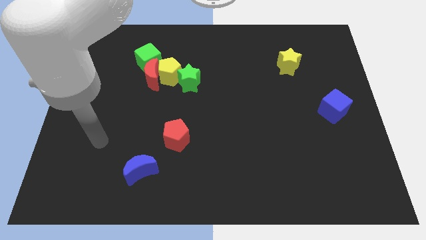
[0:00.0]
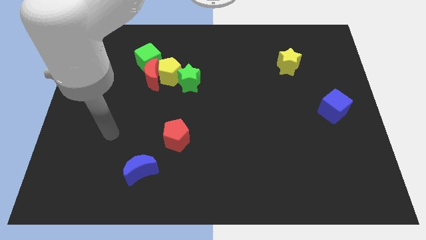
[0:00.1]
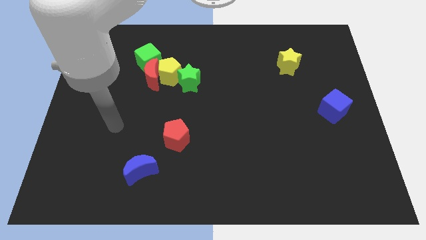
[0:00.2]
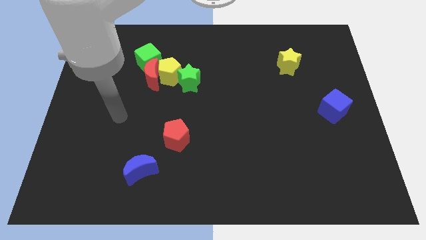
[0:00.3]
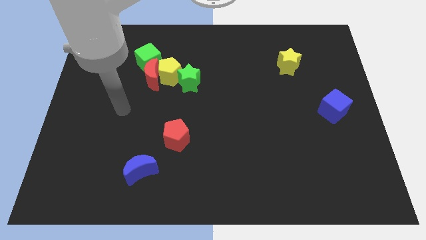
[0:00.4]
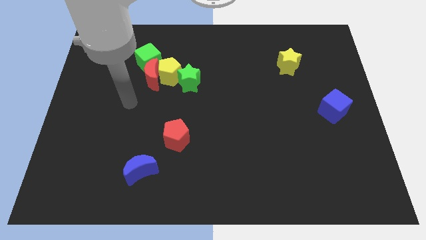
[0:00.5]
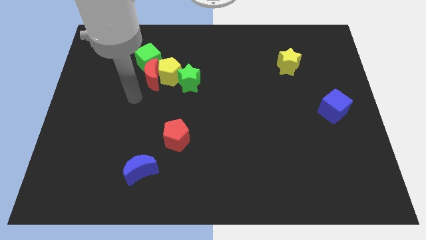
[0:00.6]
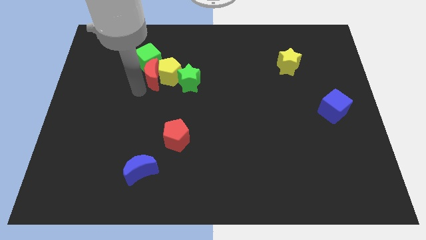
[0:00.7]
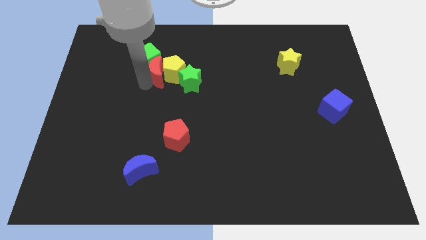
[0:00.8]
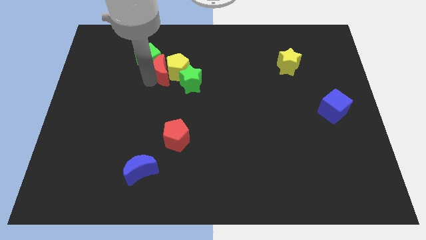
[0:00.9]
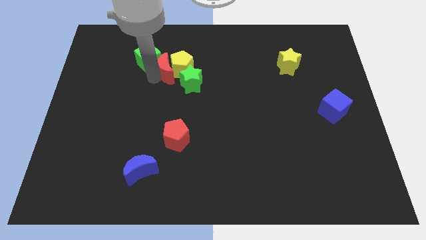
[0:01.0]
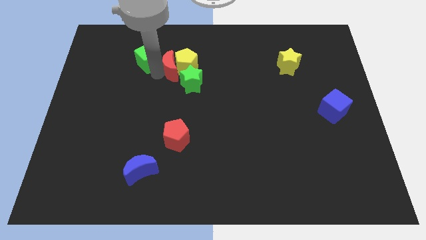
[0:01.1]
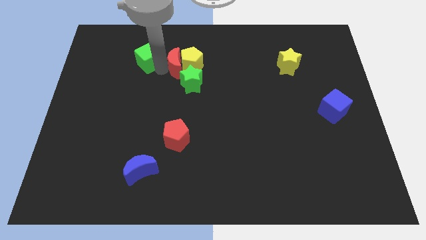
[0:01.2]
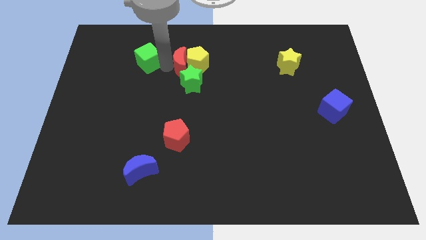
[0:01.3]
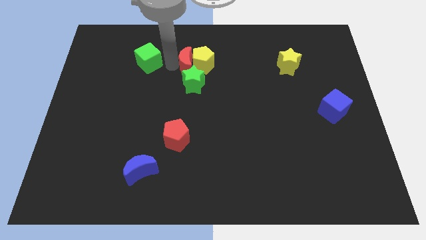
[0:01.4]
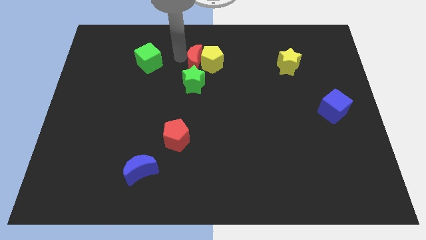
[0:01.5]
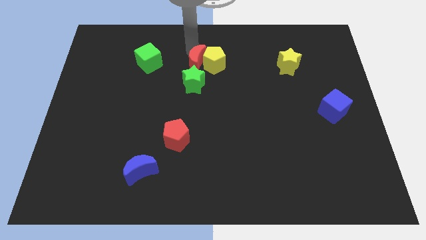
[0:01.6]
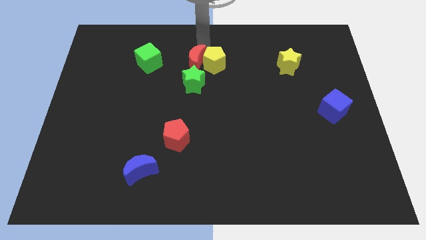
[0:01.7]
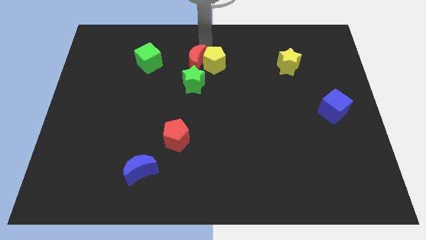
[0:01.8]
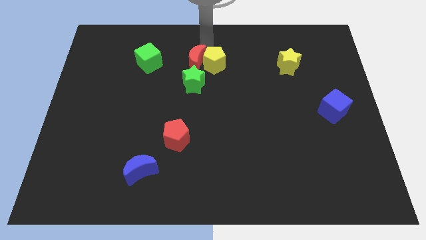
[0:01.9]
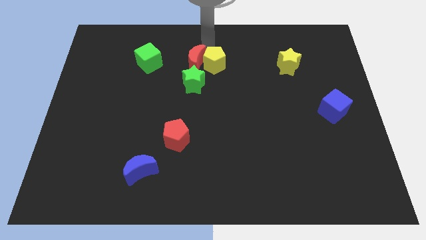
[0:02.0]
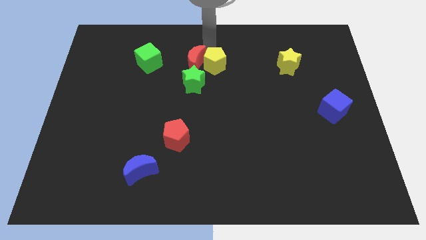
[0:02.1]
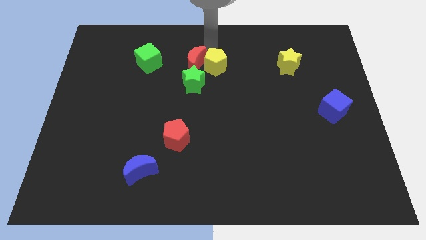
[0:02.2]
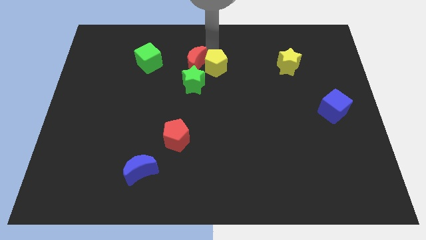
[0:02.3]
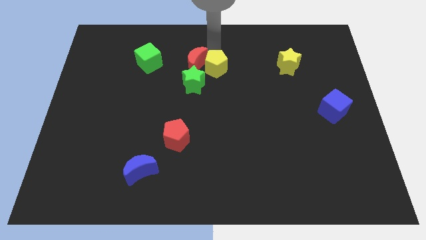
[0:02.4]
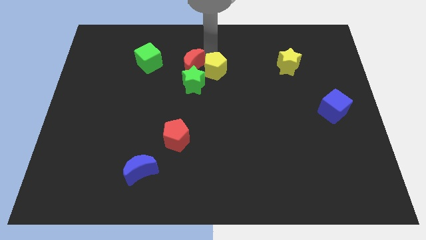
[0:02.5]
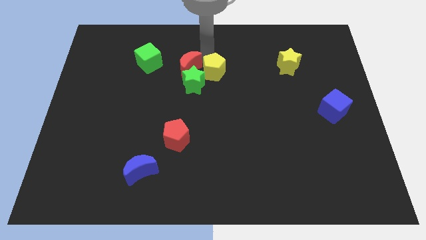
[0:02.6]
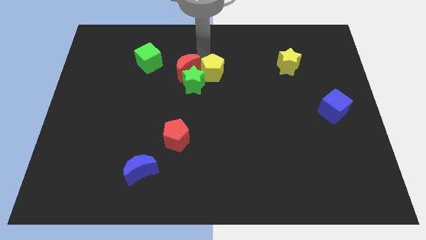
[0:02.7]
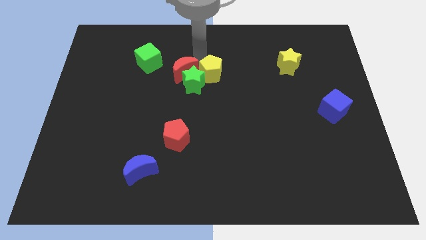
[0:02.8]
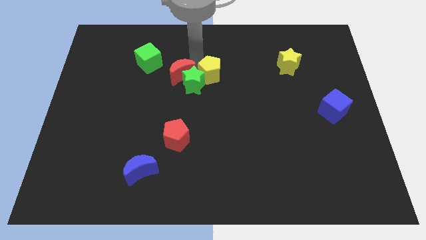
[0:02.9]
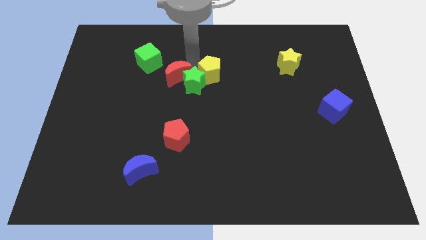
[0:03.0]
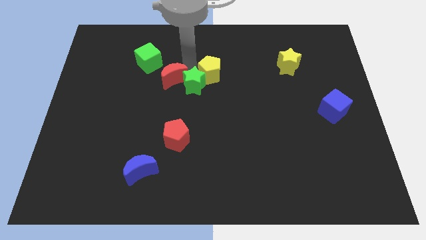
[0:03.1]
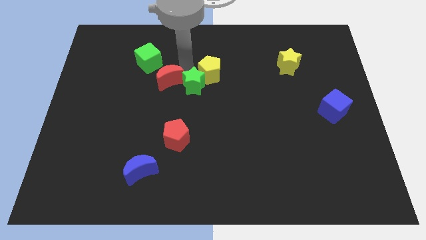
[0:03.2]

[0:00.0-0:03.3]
separate the yellow pentagon from the red moon, green star, and green cube

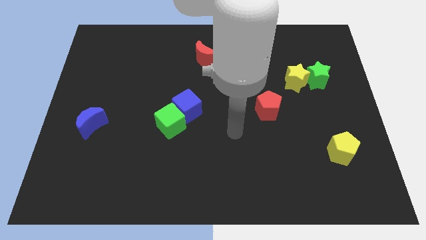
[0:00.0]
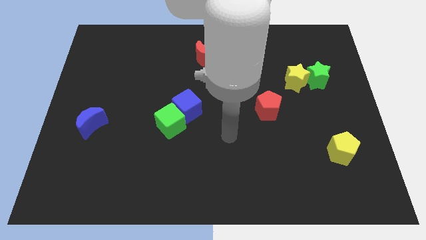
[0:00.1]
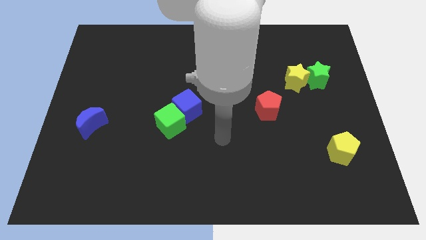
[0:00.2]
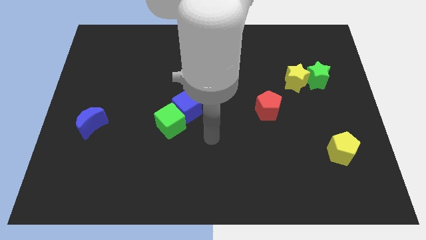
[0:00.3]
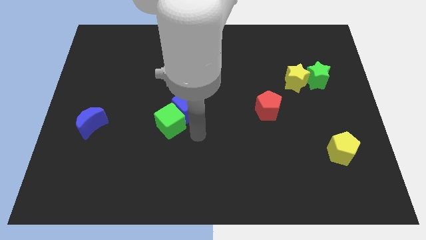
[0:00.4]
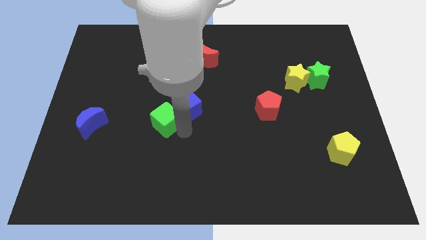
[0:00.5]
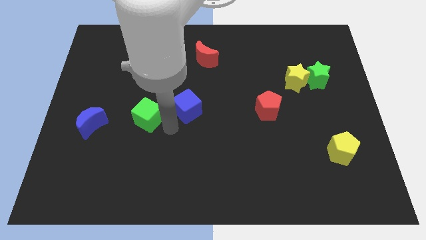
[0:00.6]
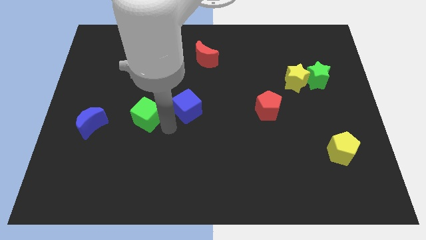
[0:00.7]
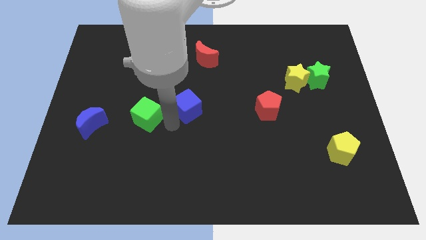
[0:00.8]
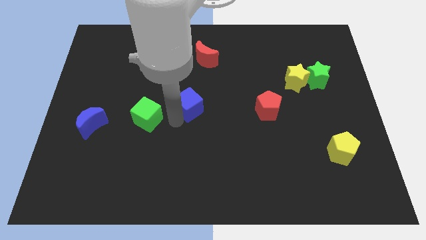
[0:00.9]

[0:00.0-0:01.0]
pull the blue cube apart from the green cube

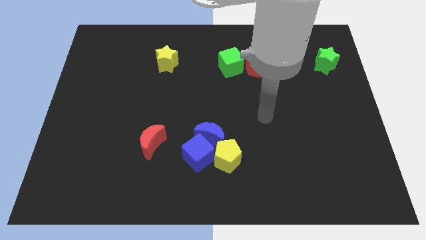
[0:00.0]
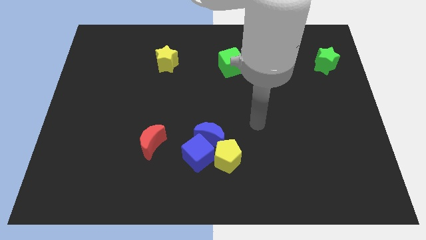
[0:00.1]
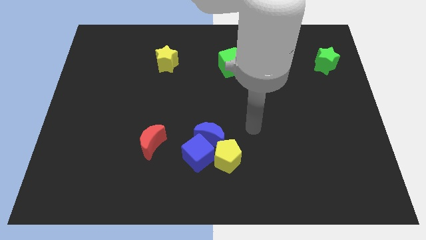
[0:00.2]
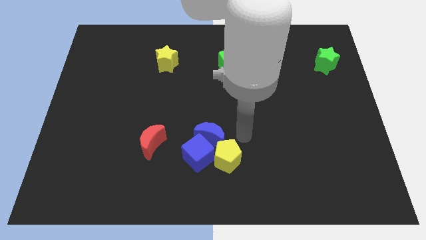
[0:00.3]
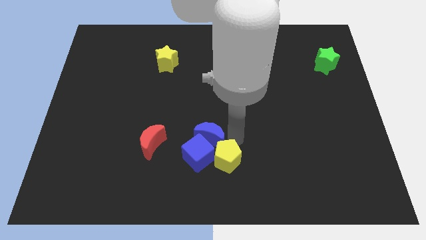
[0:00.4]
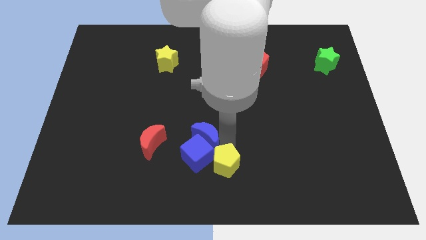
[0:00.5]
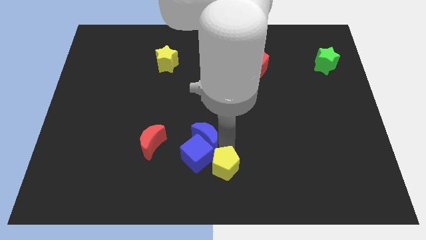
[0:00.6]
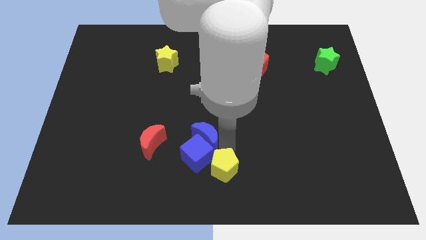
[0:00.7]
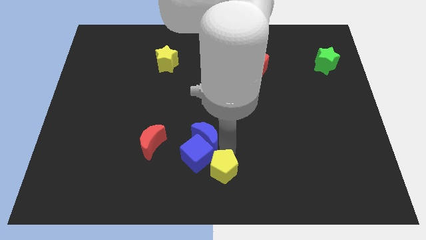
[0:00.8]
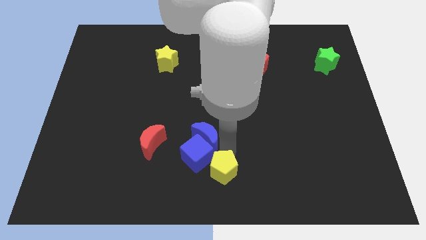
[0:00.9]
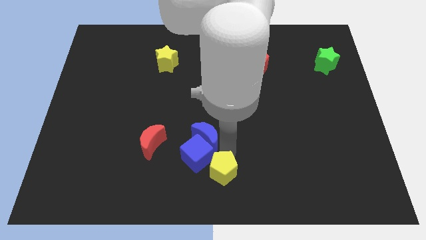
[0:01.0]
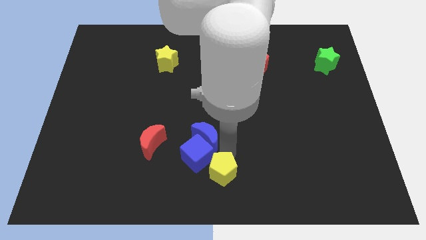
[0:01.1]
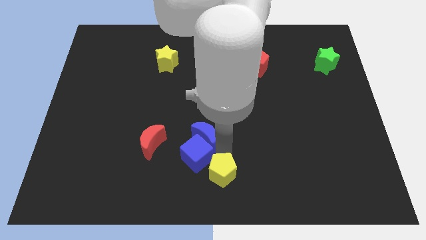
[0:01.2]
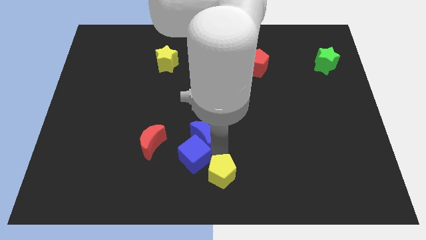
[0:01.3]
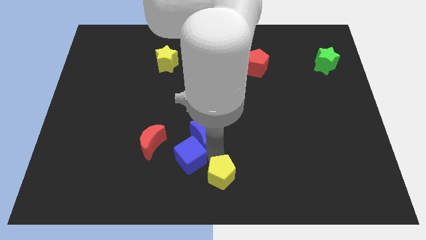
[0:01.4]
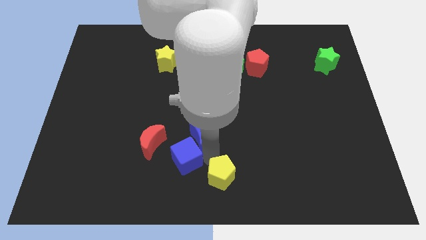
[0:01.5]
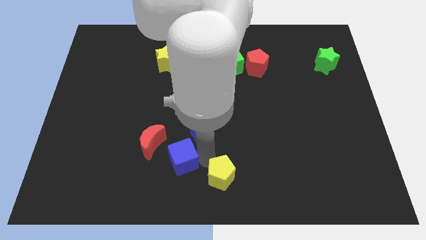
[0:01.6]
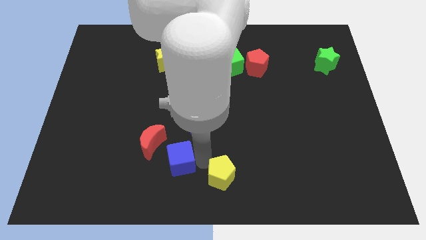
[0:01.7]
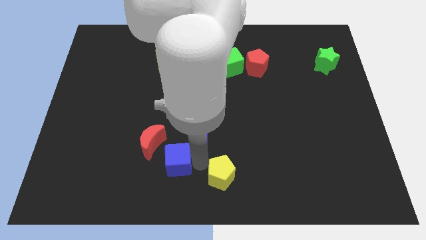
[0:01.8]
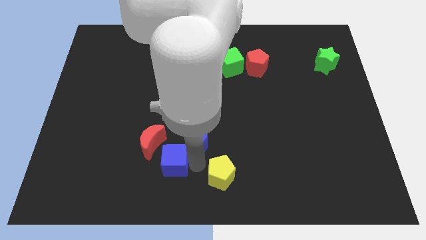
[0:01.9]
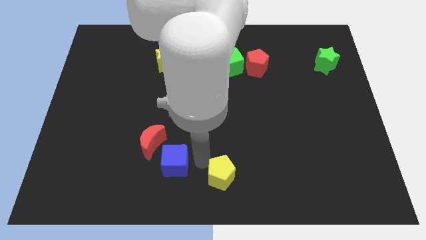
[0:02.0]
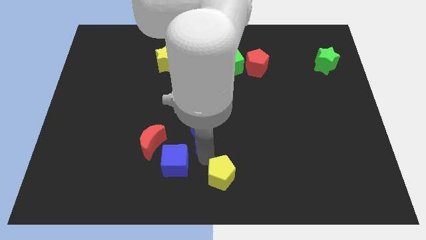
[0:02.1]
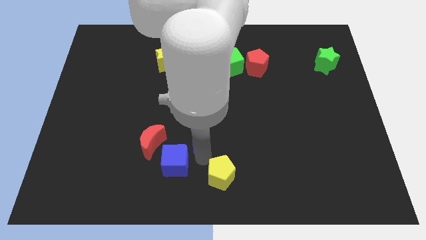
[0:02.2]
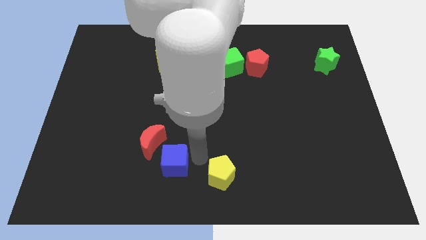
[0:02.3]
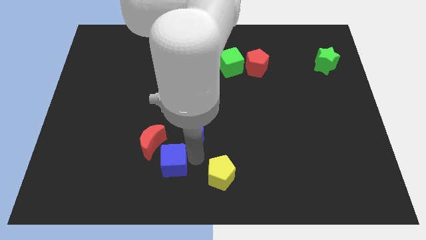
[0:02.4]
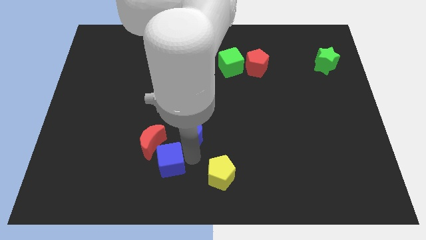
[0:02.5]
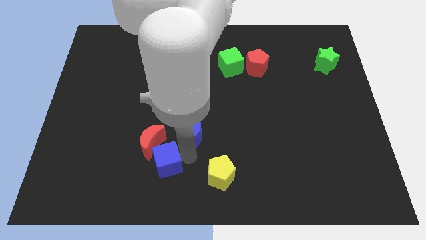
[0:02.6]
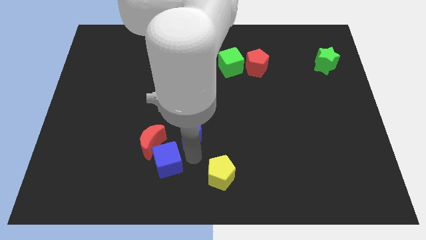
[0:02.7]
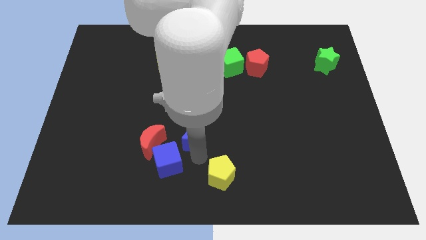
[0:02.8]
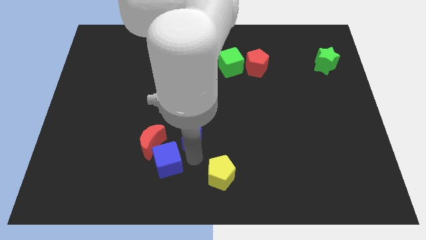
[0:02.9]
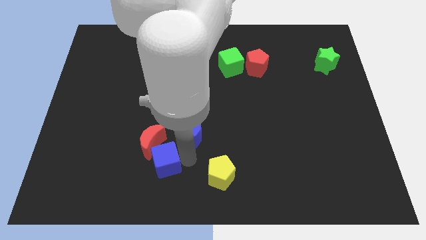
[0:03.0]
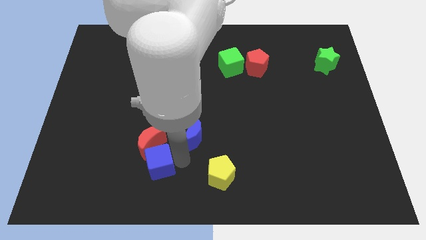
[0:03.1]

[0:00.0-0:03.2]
move the blue cube away from the blue moon and yellow pentagon

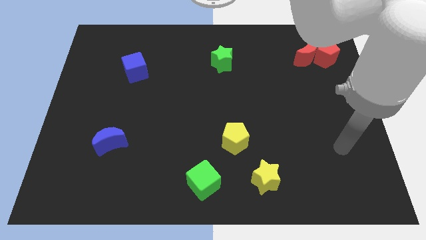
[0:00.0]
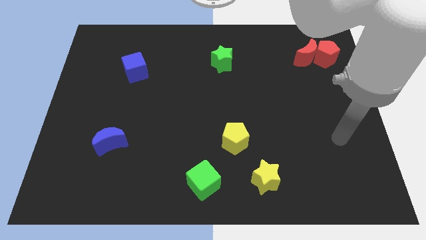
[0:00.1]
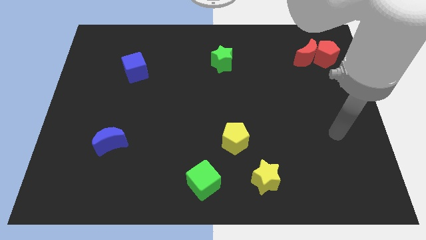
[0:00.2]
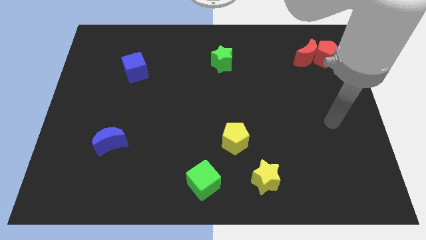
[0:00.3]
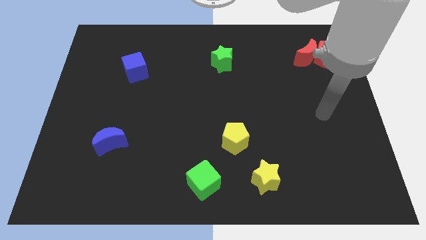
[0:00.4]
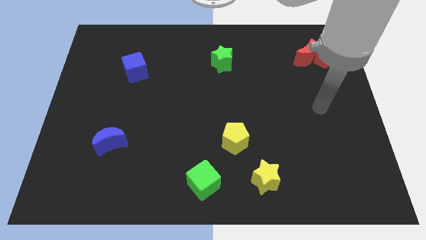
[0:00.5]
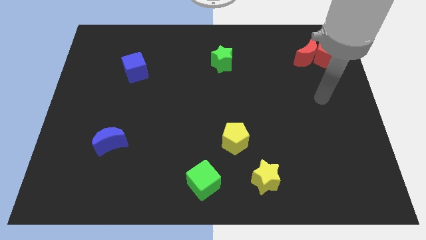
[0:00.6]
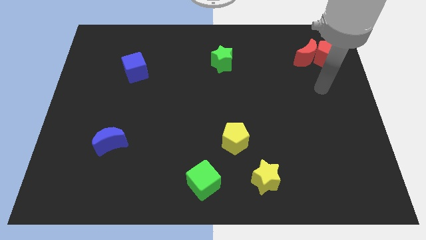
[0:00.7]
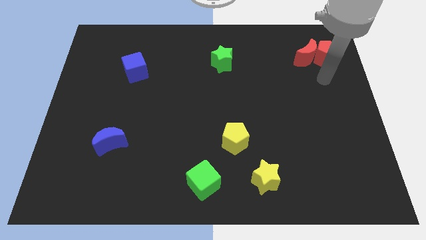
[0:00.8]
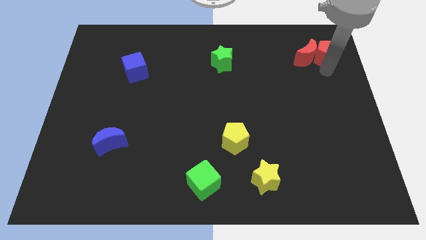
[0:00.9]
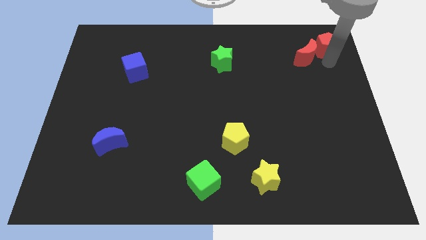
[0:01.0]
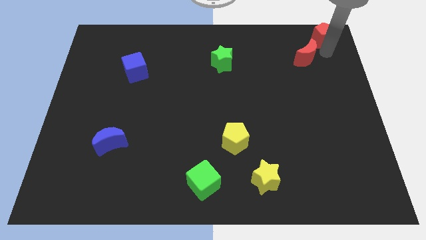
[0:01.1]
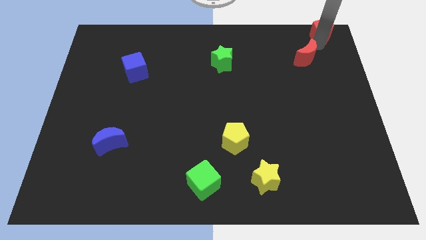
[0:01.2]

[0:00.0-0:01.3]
pull the red moon apart from the red pentagon

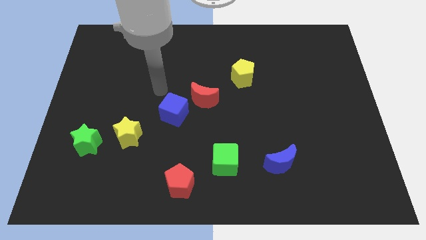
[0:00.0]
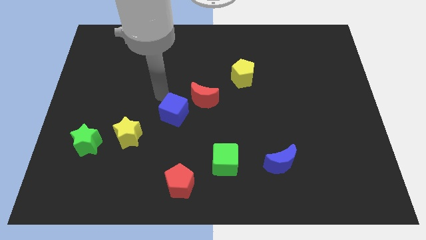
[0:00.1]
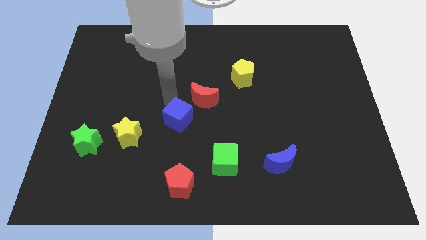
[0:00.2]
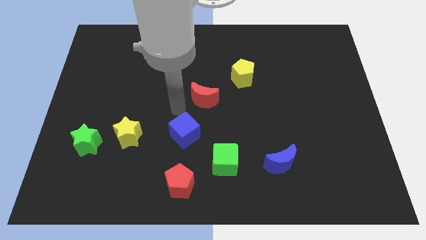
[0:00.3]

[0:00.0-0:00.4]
pull the red moon apart from the blue cube

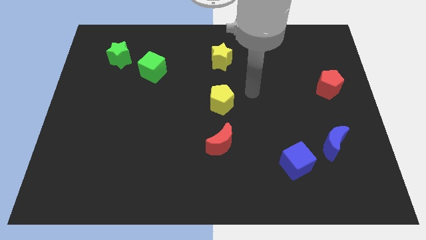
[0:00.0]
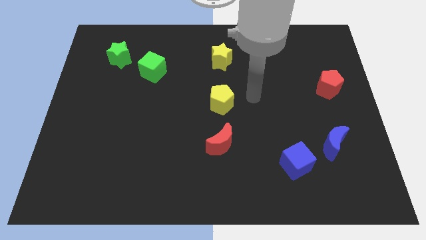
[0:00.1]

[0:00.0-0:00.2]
pull the blue moon apart from the blue cube
